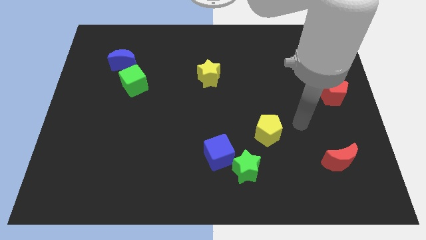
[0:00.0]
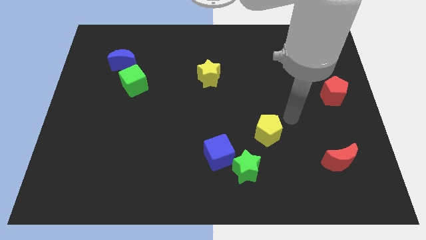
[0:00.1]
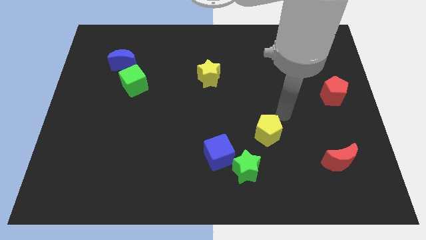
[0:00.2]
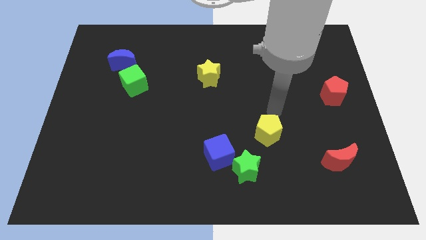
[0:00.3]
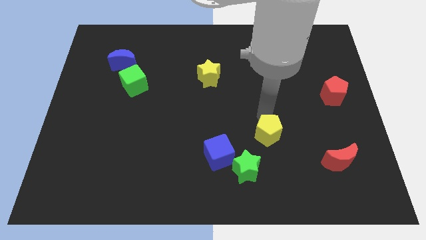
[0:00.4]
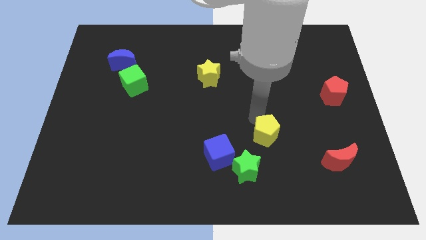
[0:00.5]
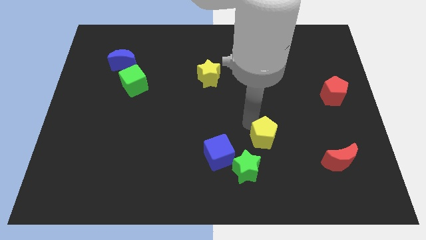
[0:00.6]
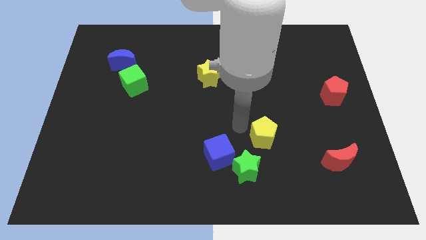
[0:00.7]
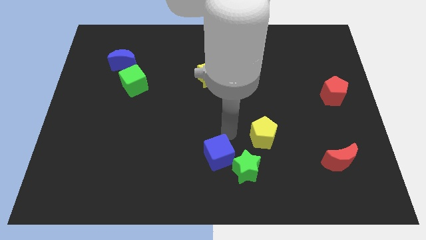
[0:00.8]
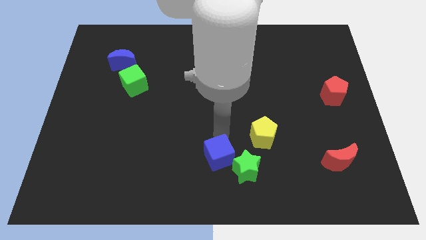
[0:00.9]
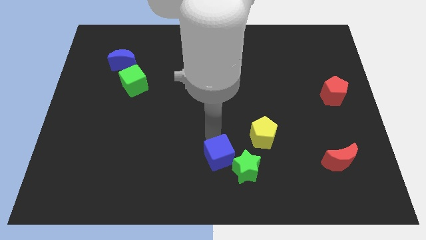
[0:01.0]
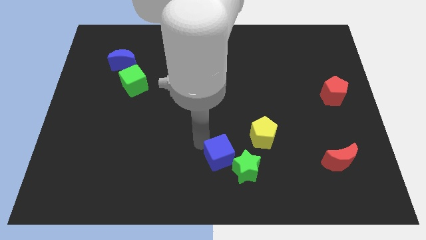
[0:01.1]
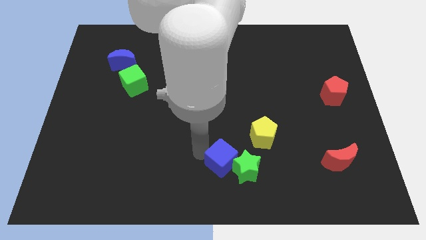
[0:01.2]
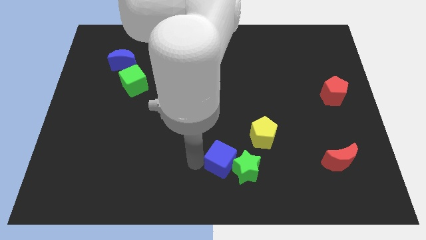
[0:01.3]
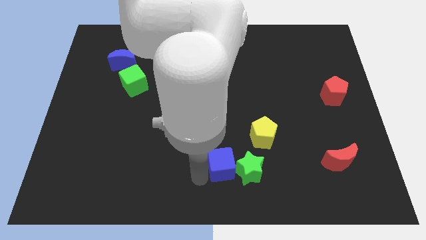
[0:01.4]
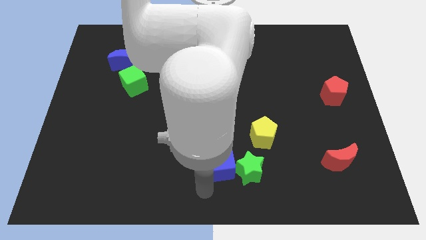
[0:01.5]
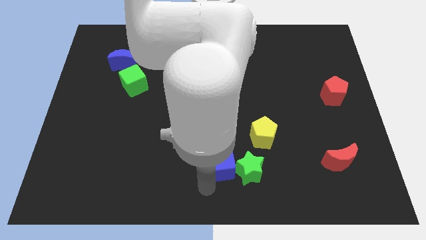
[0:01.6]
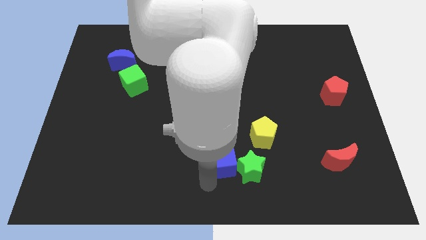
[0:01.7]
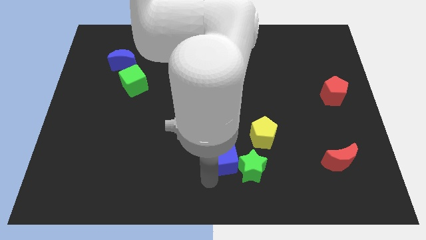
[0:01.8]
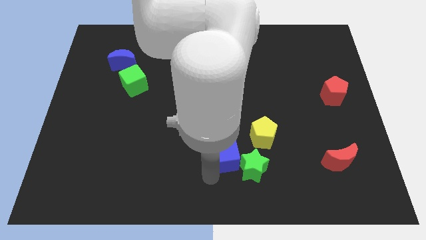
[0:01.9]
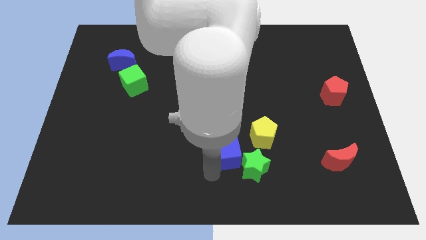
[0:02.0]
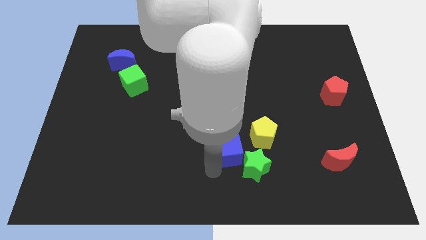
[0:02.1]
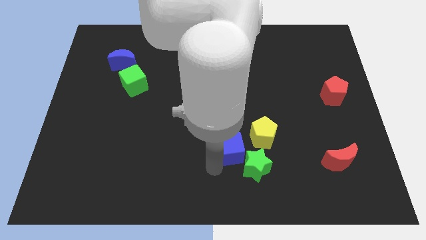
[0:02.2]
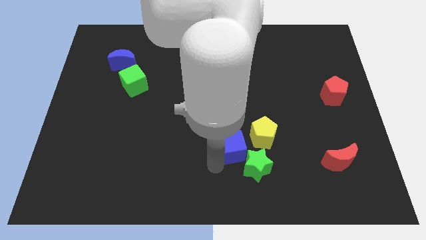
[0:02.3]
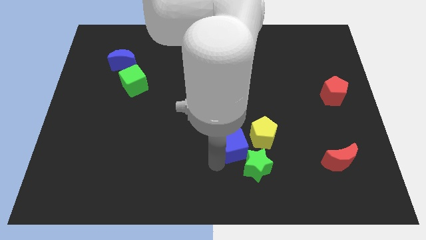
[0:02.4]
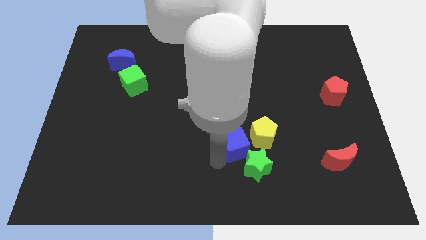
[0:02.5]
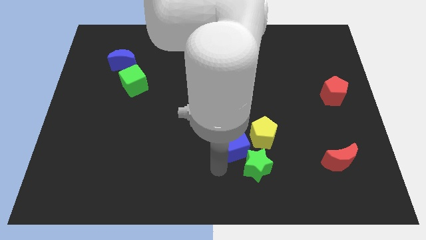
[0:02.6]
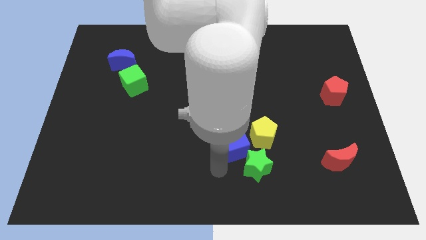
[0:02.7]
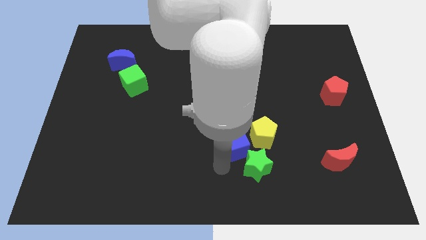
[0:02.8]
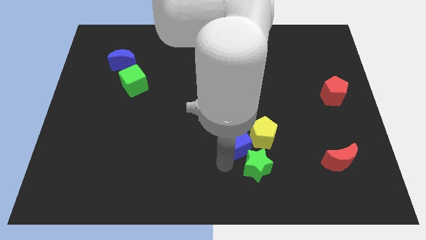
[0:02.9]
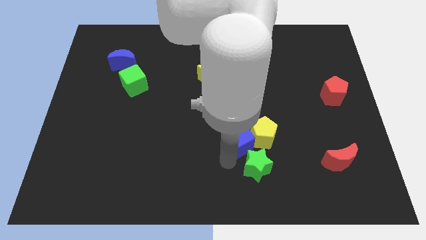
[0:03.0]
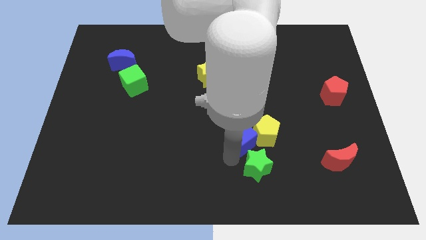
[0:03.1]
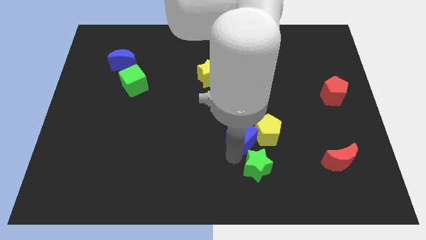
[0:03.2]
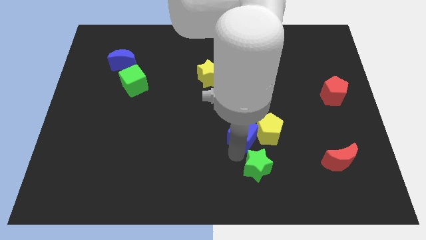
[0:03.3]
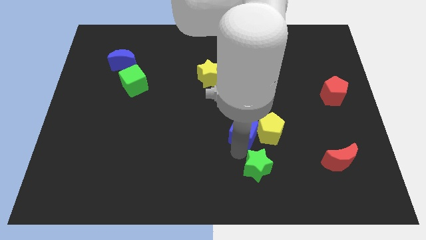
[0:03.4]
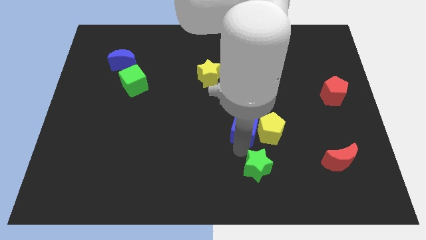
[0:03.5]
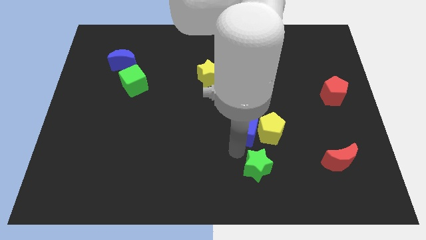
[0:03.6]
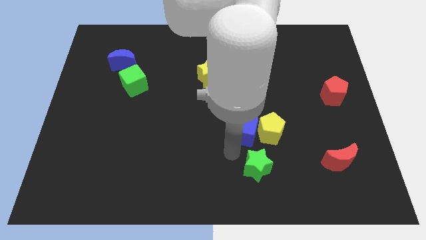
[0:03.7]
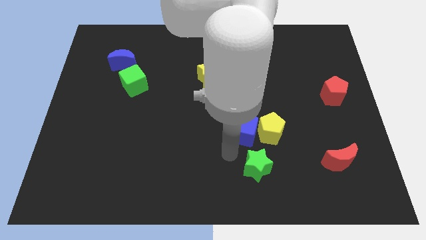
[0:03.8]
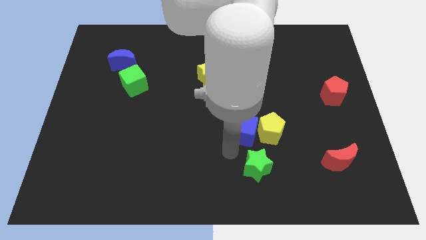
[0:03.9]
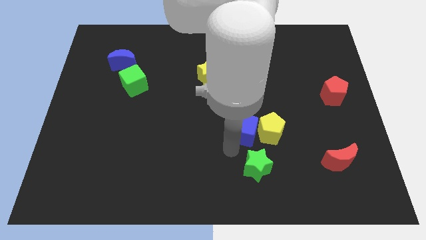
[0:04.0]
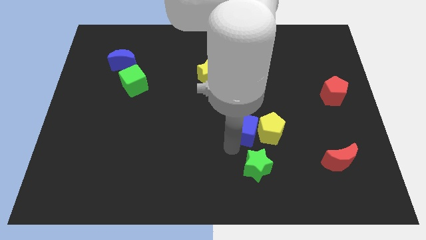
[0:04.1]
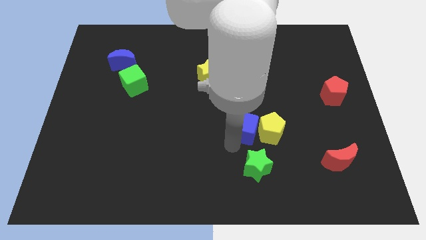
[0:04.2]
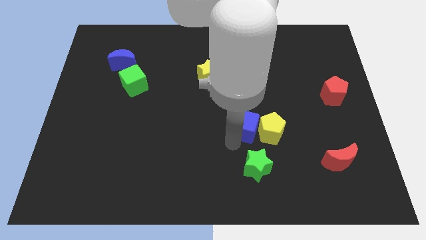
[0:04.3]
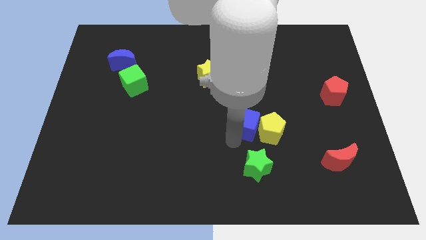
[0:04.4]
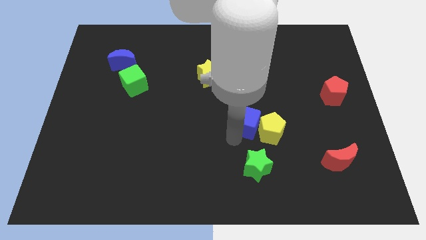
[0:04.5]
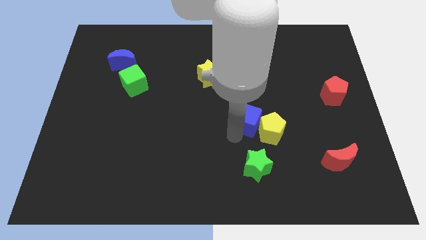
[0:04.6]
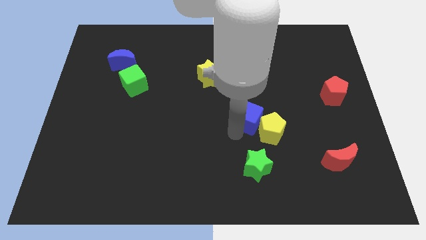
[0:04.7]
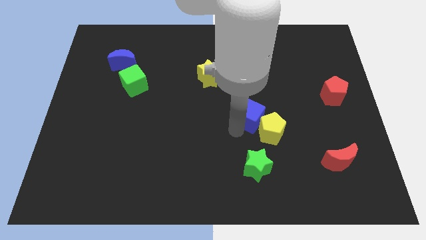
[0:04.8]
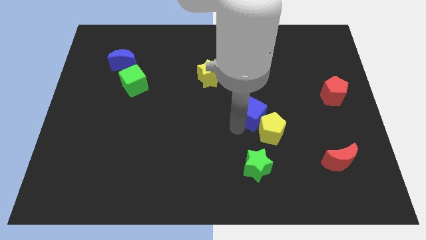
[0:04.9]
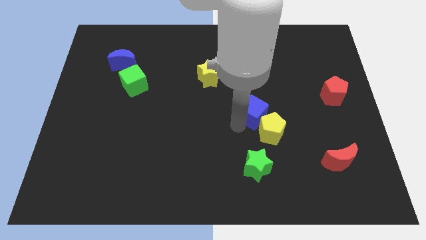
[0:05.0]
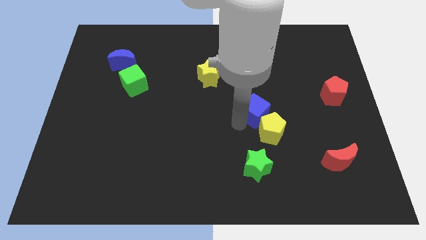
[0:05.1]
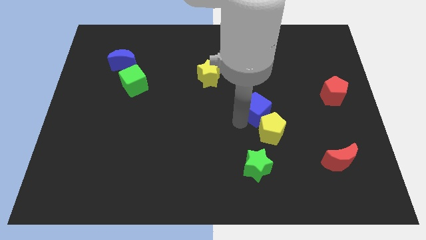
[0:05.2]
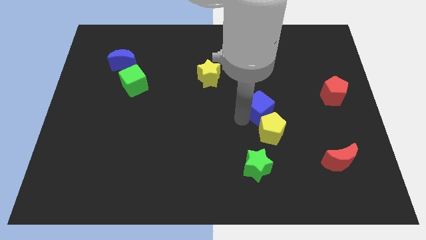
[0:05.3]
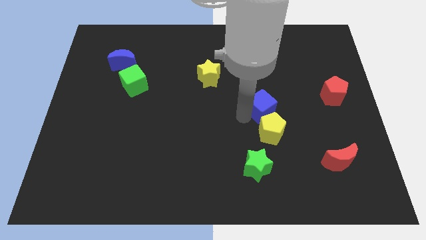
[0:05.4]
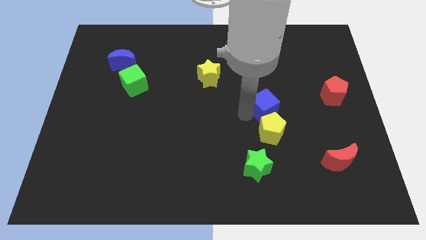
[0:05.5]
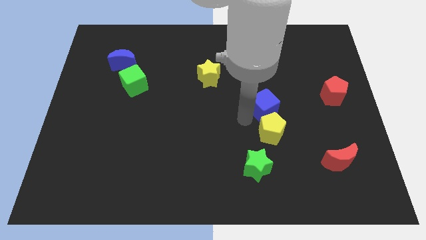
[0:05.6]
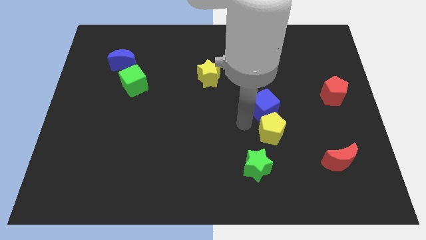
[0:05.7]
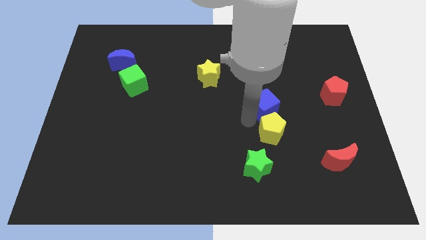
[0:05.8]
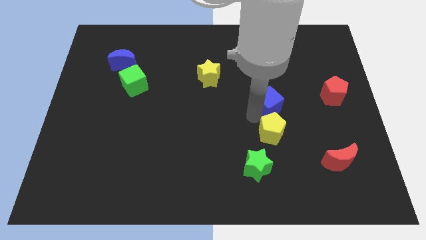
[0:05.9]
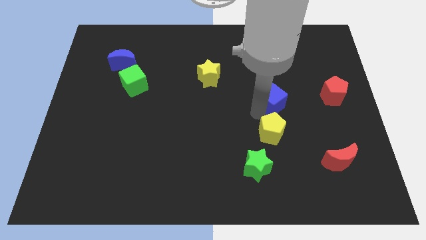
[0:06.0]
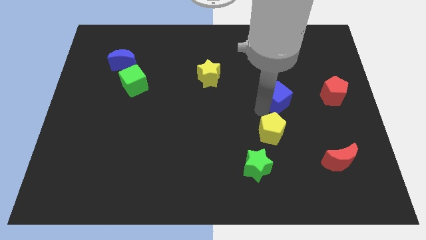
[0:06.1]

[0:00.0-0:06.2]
move the blue cube upwards and right diagonally

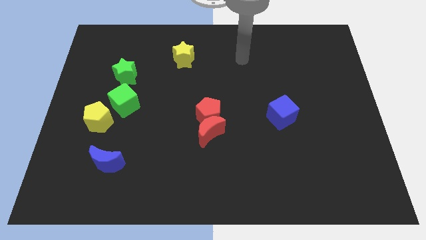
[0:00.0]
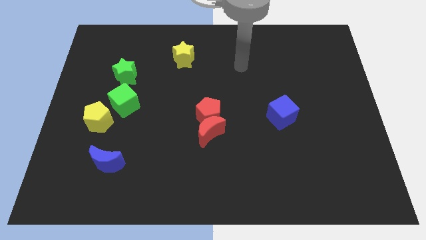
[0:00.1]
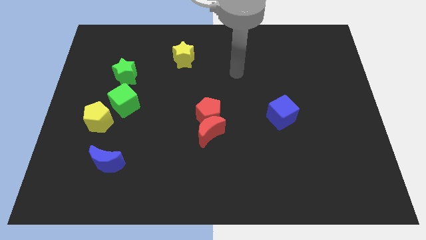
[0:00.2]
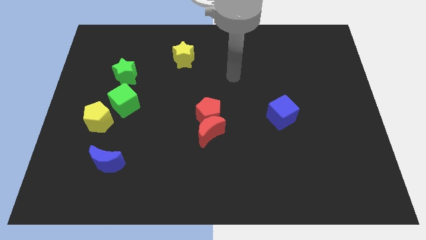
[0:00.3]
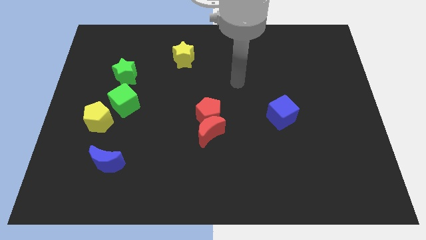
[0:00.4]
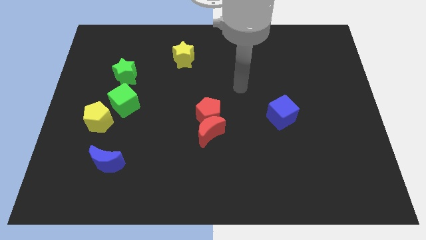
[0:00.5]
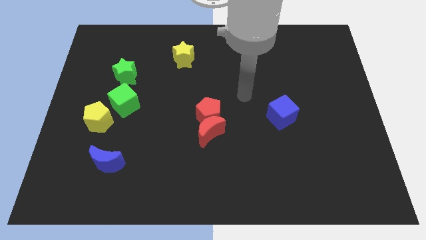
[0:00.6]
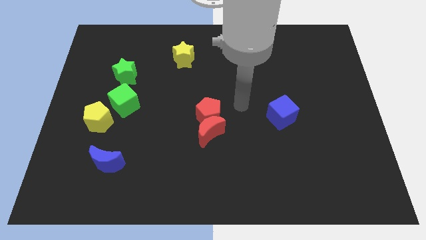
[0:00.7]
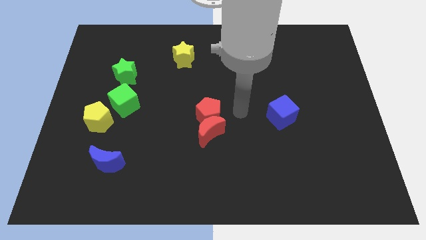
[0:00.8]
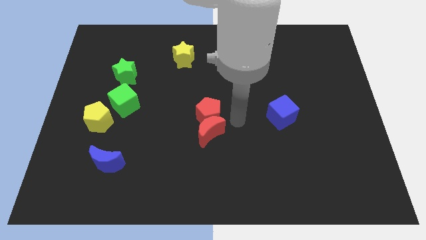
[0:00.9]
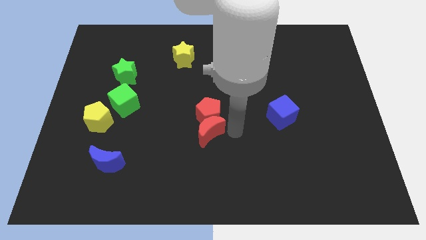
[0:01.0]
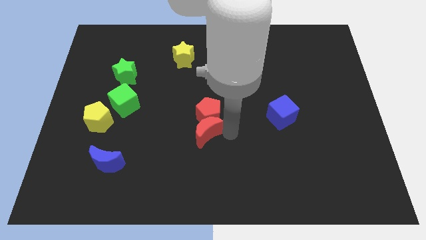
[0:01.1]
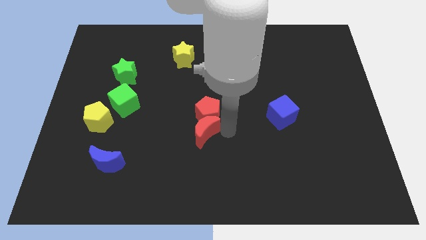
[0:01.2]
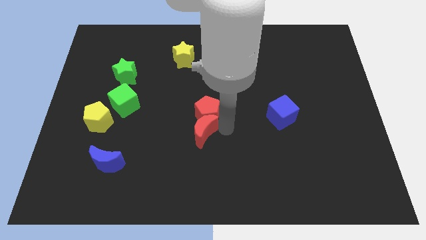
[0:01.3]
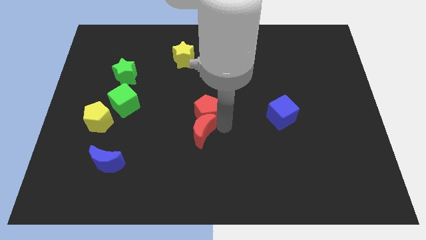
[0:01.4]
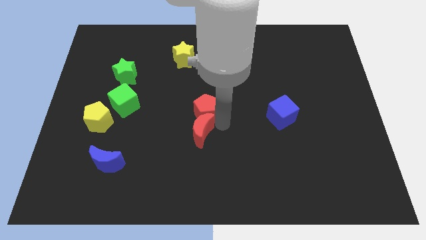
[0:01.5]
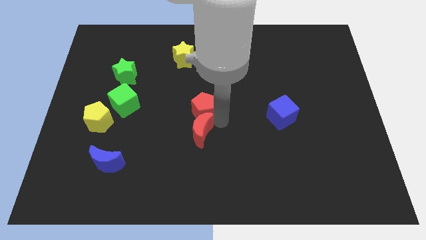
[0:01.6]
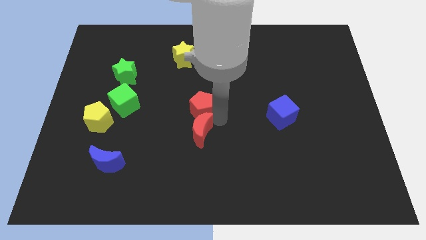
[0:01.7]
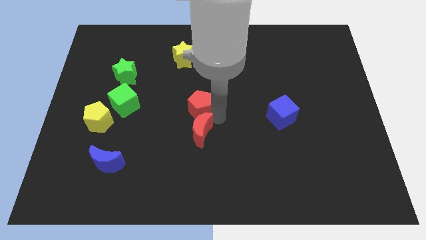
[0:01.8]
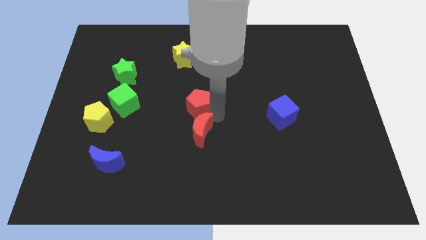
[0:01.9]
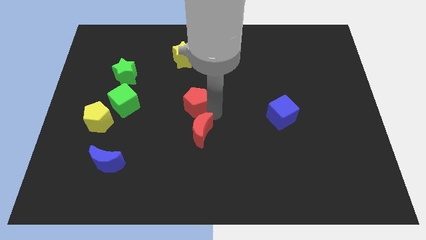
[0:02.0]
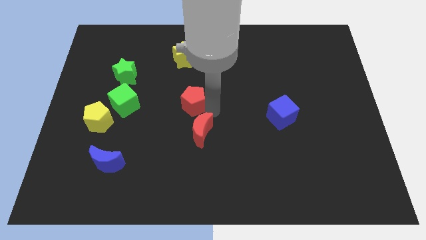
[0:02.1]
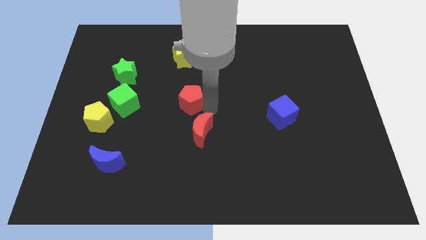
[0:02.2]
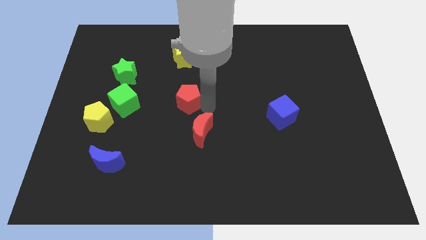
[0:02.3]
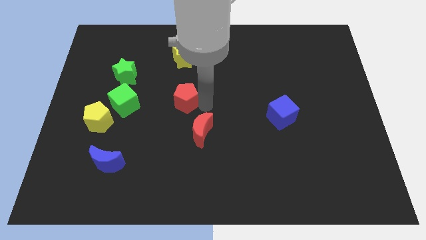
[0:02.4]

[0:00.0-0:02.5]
move the red pentagon upwards and to the left somewhat
